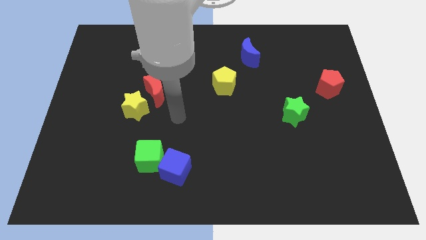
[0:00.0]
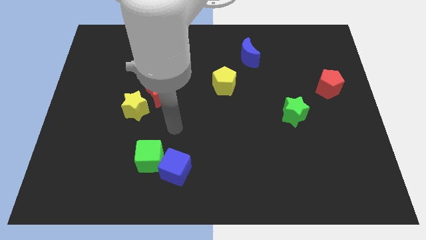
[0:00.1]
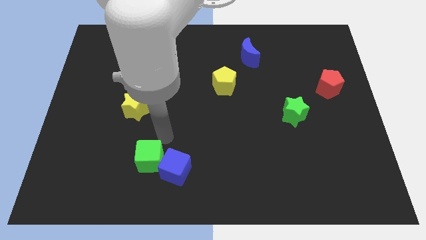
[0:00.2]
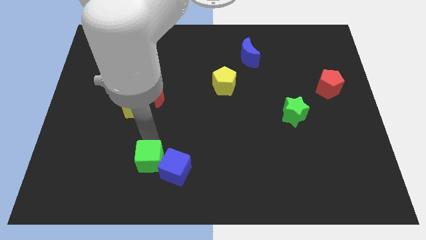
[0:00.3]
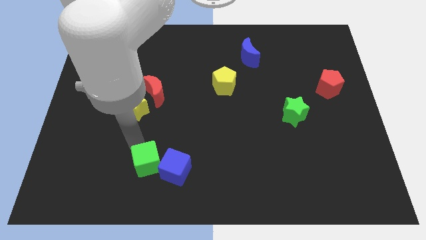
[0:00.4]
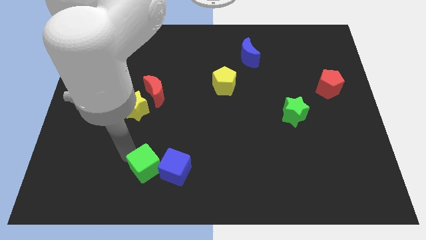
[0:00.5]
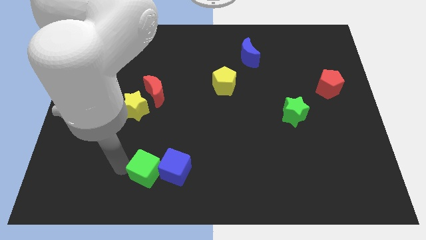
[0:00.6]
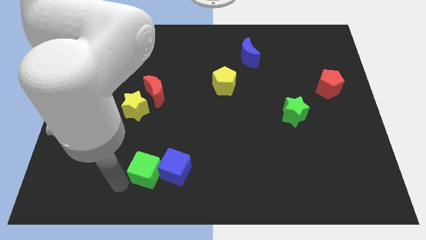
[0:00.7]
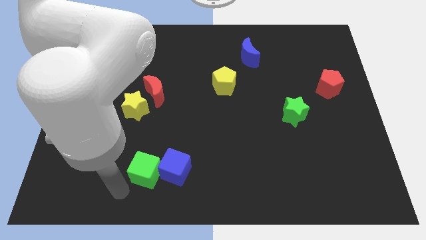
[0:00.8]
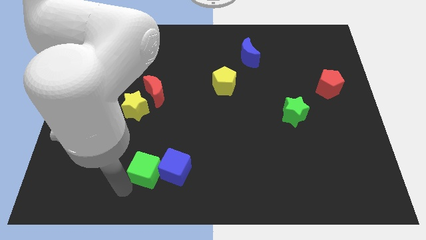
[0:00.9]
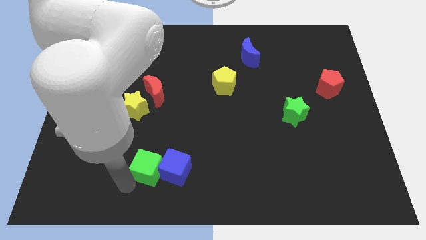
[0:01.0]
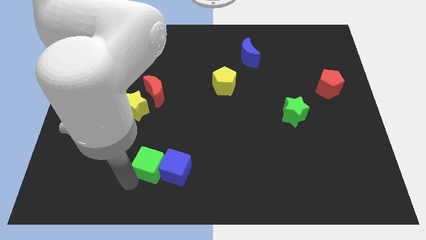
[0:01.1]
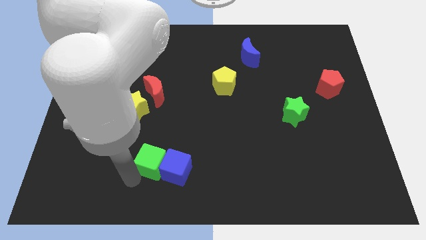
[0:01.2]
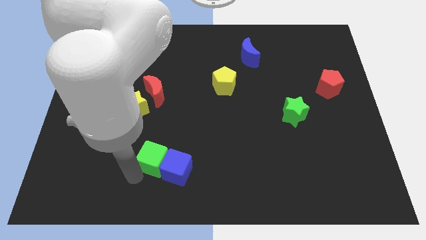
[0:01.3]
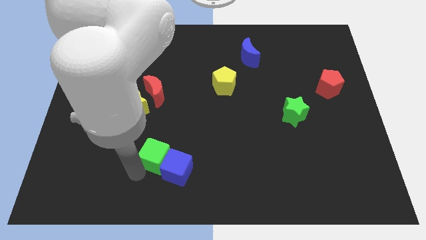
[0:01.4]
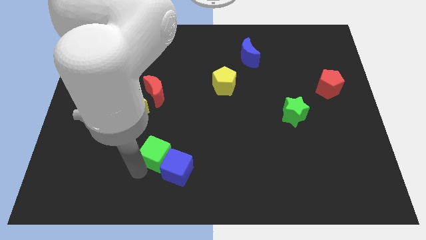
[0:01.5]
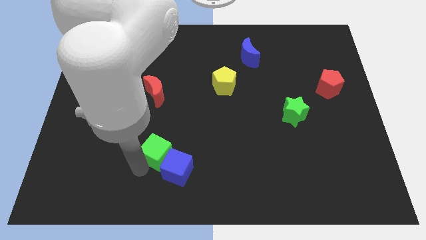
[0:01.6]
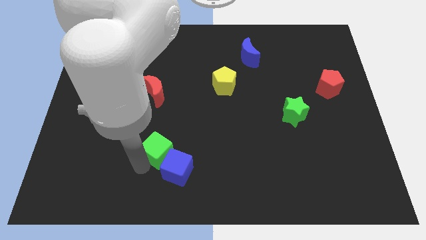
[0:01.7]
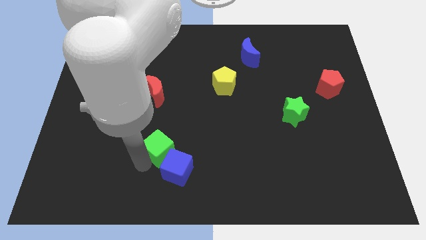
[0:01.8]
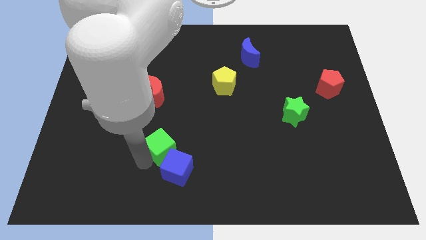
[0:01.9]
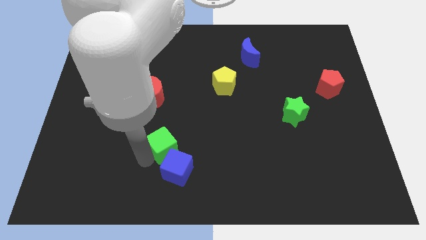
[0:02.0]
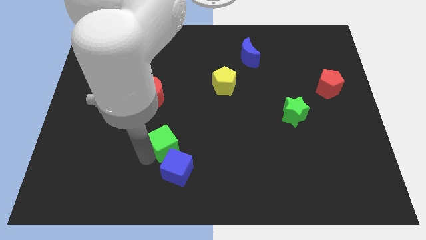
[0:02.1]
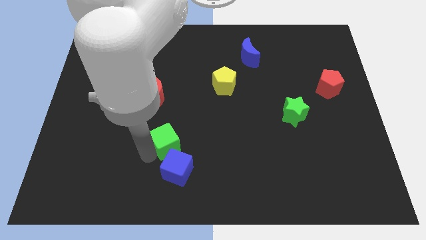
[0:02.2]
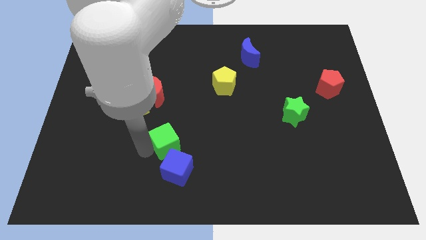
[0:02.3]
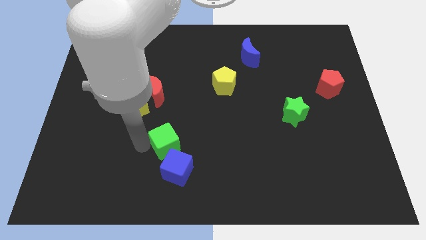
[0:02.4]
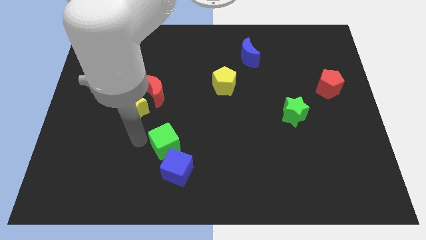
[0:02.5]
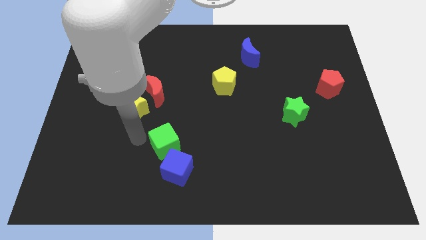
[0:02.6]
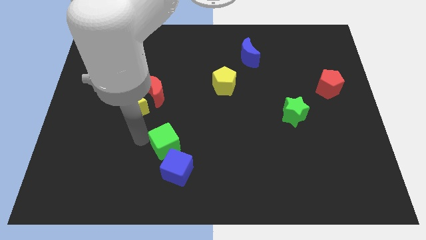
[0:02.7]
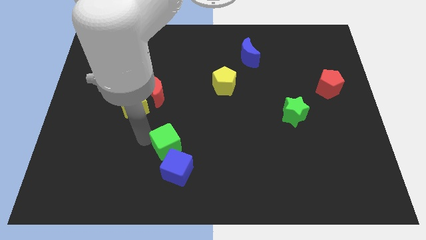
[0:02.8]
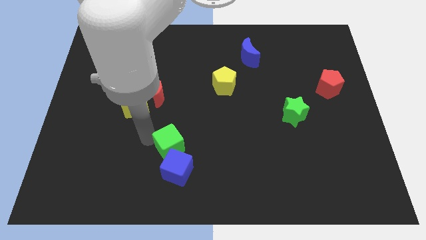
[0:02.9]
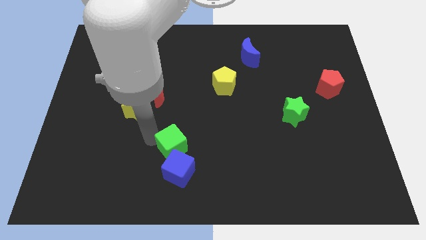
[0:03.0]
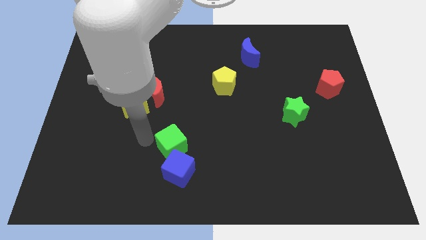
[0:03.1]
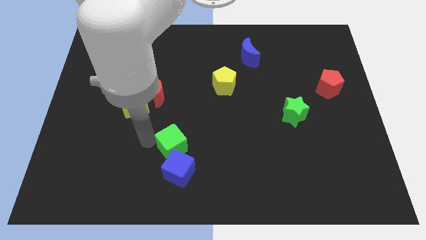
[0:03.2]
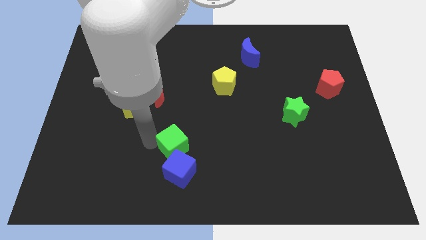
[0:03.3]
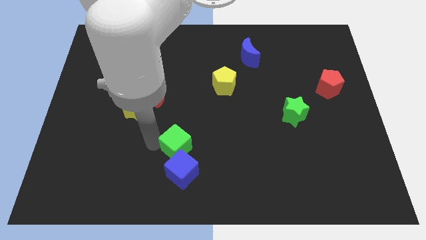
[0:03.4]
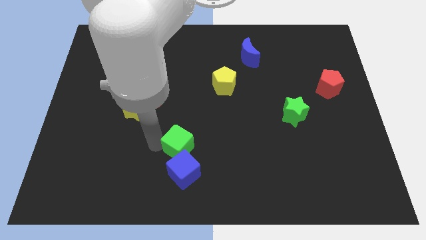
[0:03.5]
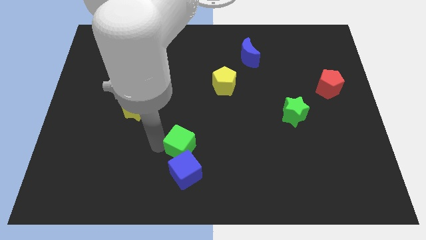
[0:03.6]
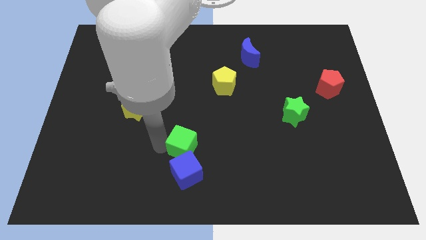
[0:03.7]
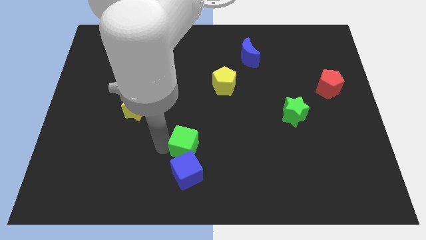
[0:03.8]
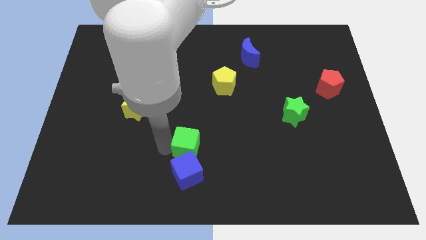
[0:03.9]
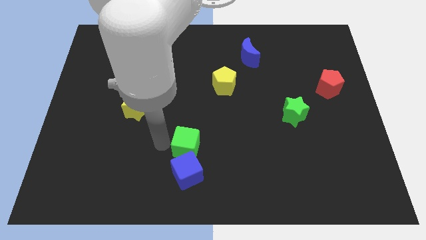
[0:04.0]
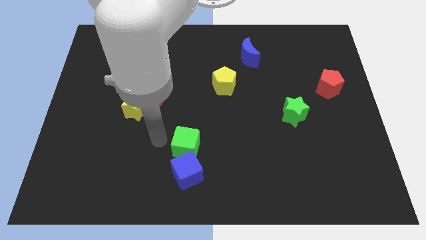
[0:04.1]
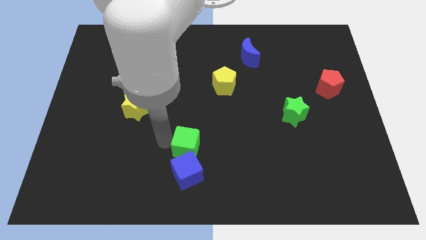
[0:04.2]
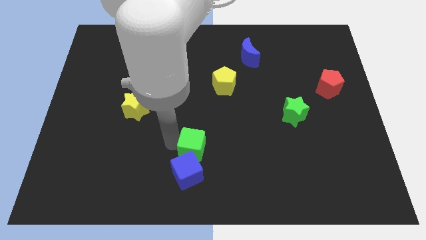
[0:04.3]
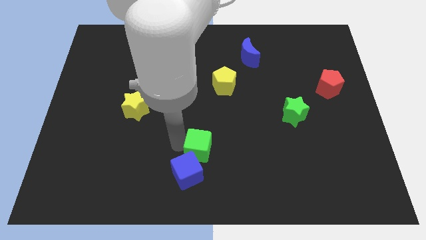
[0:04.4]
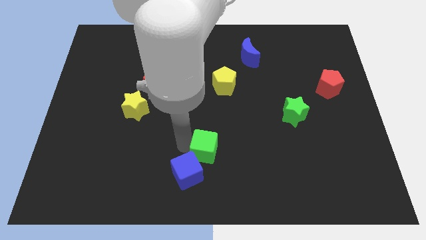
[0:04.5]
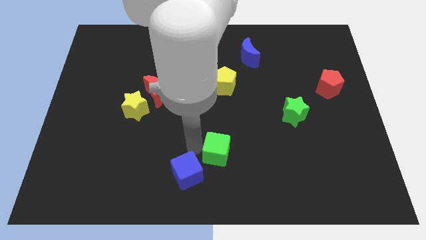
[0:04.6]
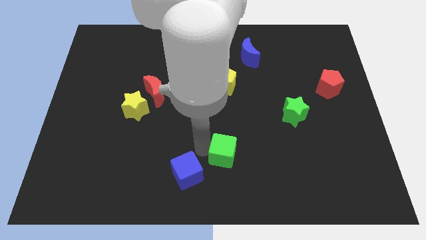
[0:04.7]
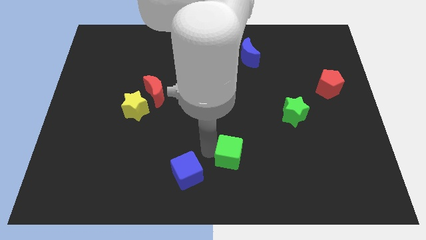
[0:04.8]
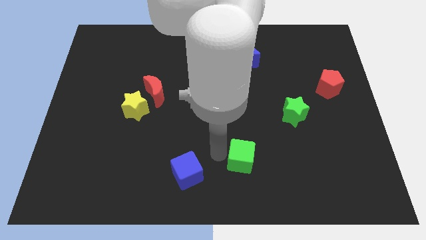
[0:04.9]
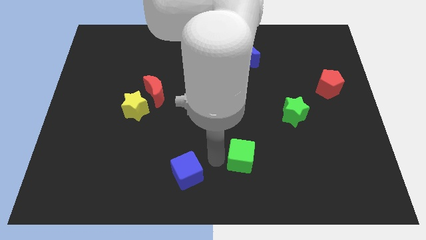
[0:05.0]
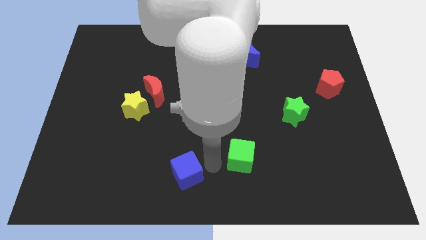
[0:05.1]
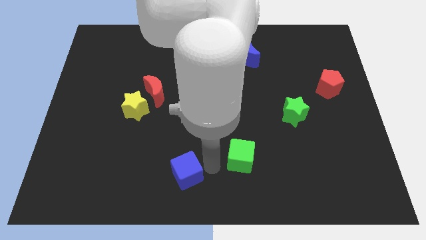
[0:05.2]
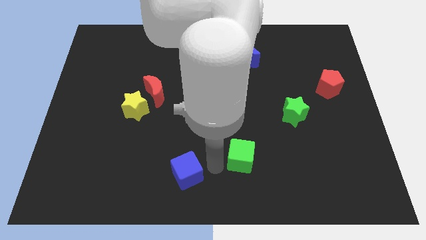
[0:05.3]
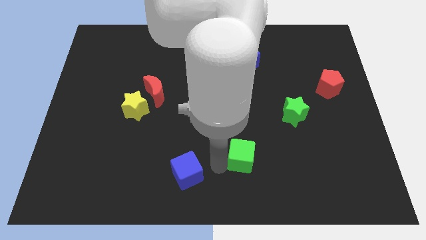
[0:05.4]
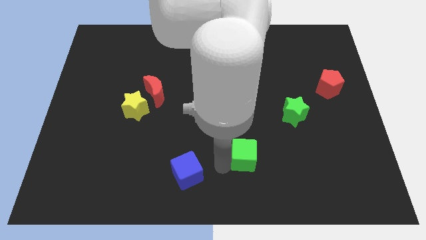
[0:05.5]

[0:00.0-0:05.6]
slide the green cube right

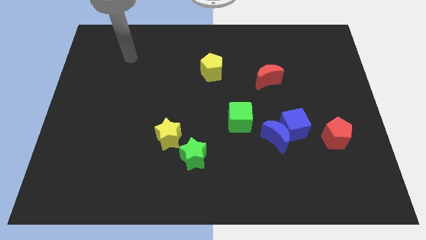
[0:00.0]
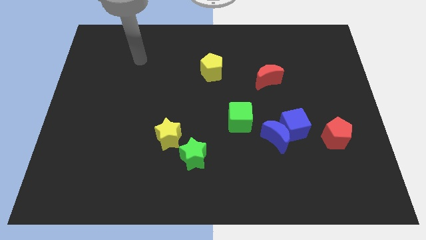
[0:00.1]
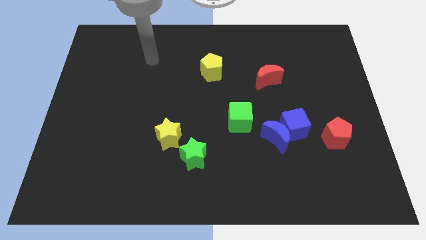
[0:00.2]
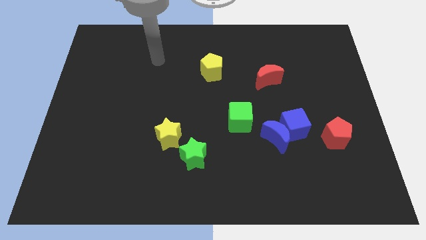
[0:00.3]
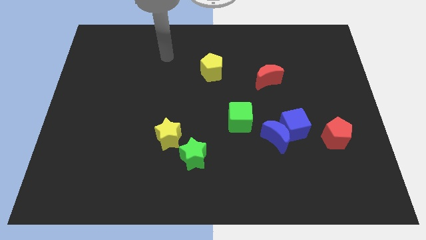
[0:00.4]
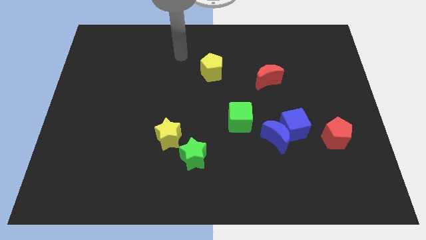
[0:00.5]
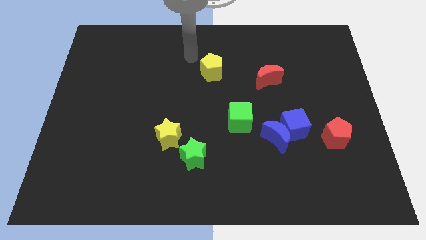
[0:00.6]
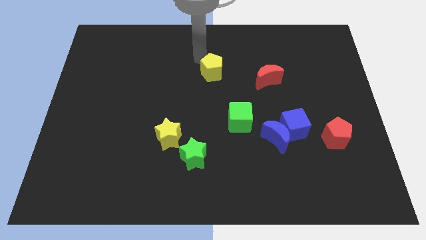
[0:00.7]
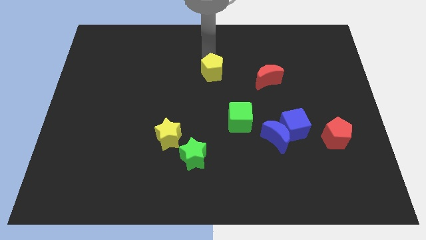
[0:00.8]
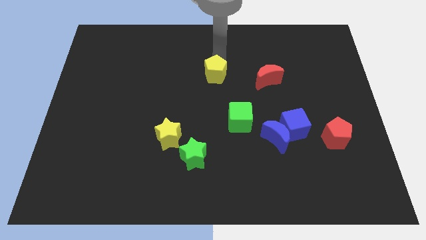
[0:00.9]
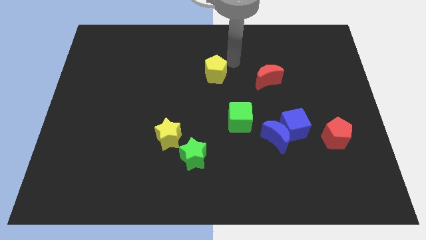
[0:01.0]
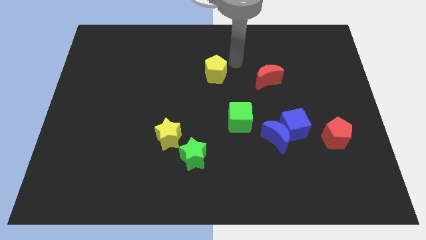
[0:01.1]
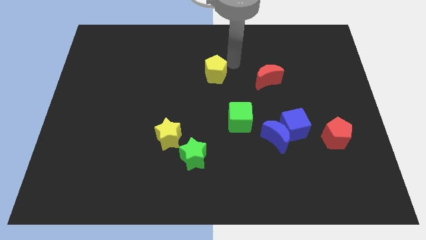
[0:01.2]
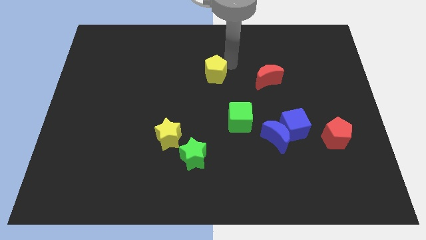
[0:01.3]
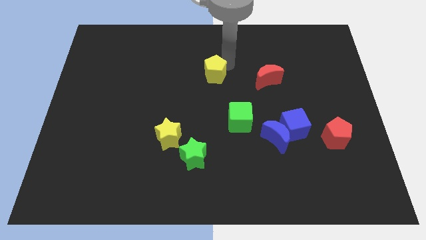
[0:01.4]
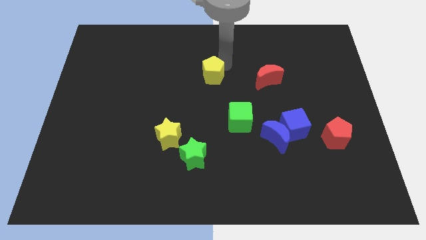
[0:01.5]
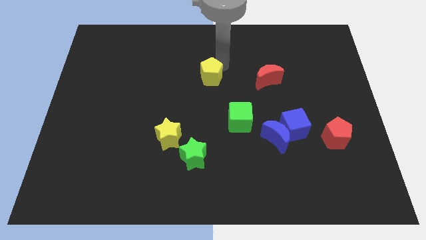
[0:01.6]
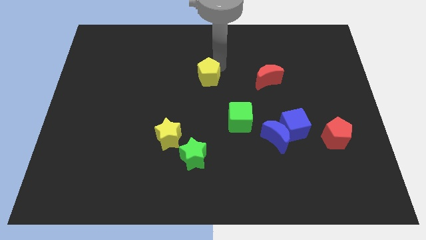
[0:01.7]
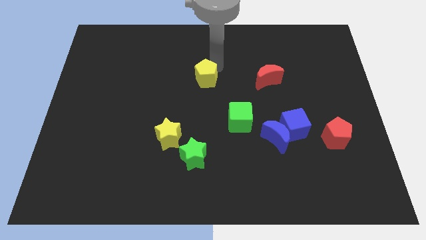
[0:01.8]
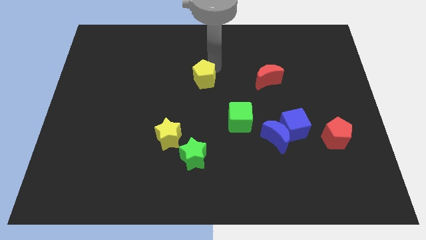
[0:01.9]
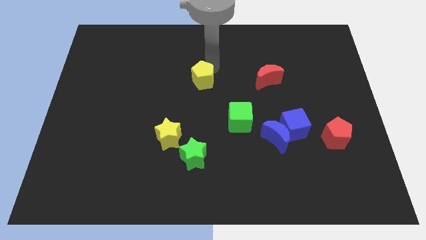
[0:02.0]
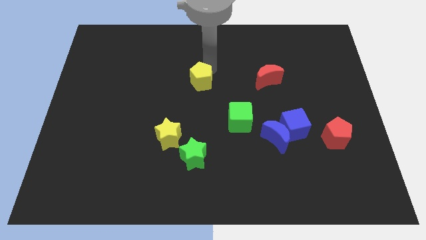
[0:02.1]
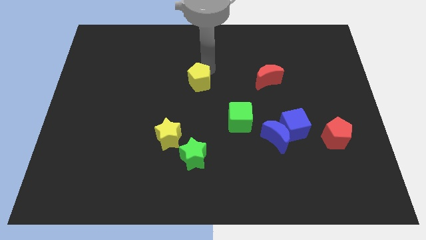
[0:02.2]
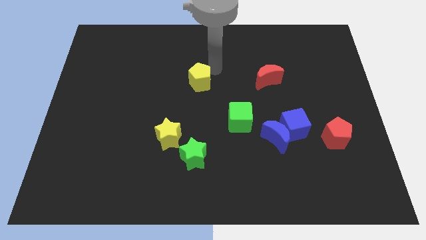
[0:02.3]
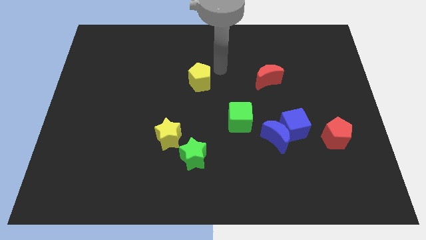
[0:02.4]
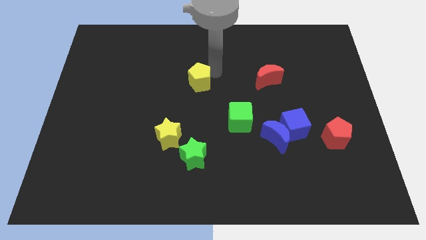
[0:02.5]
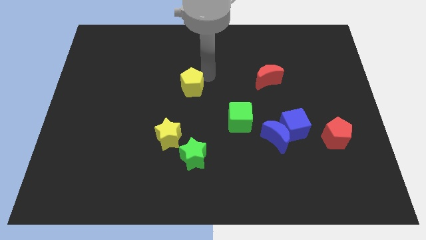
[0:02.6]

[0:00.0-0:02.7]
push the yellow pentagon a little diagonally downwards and left
